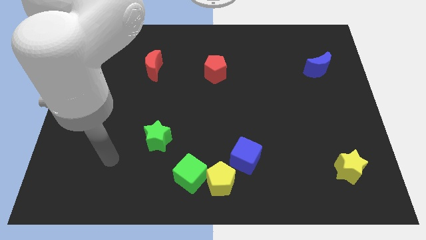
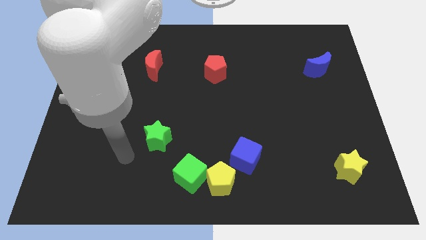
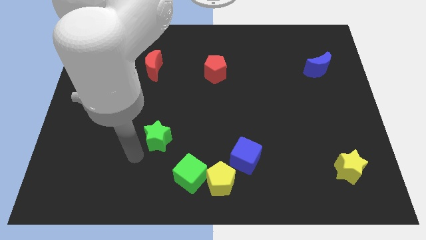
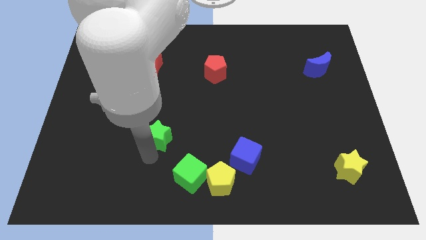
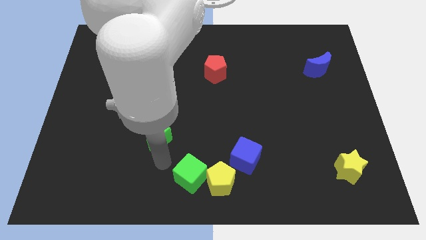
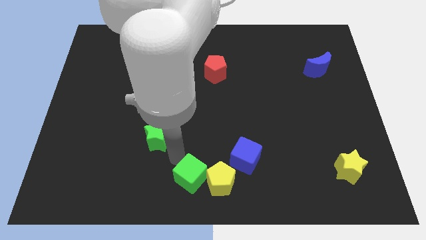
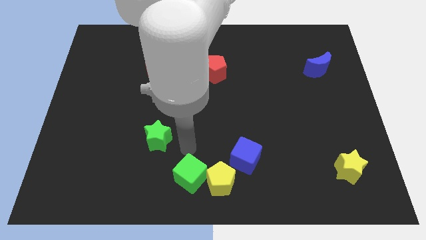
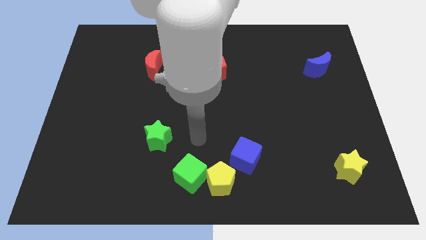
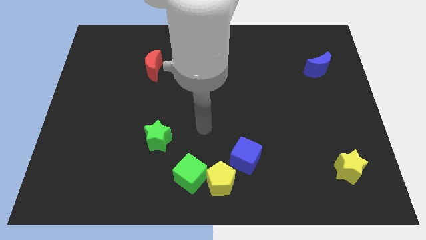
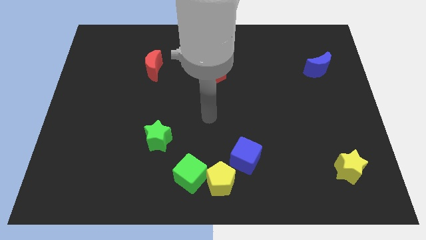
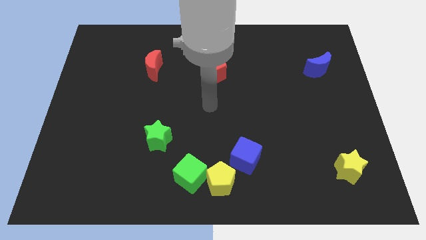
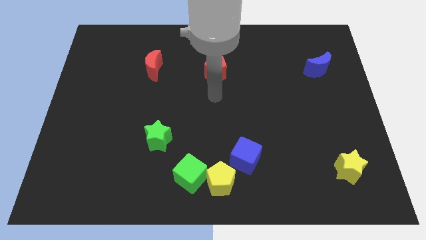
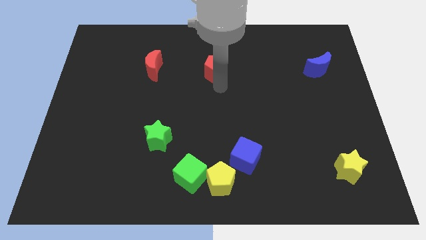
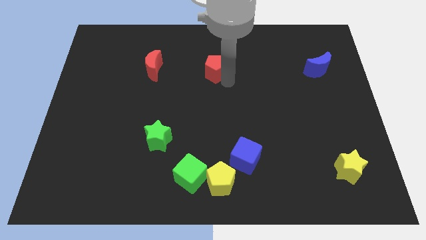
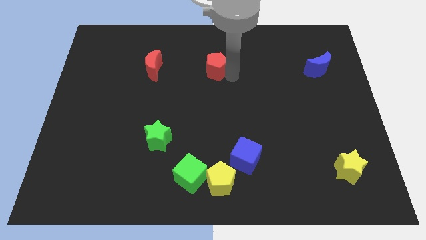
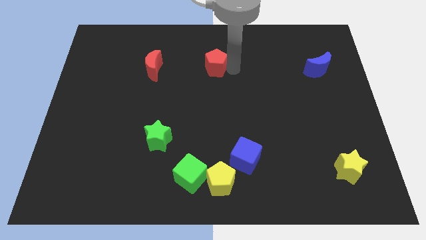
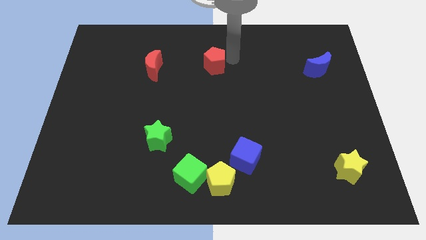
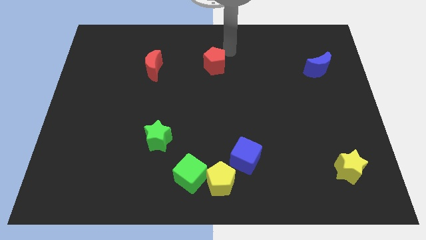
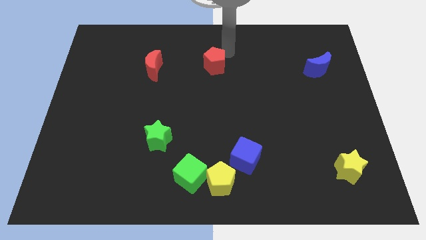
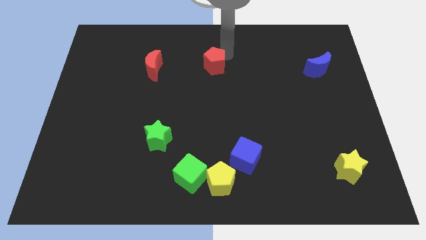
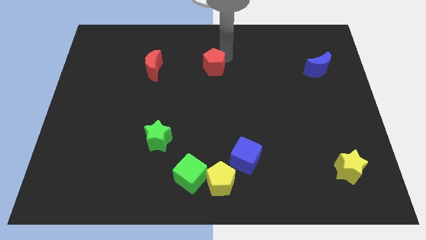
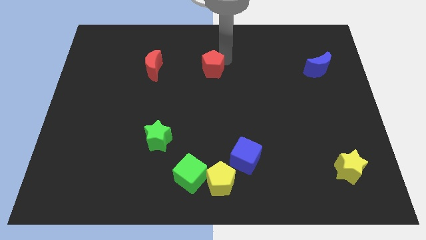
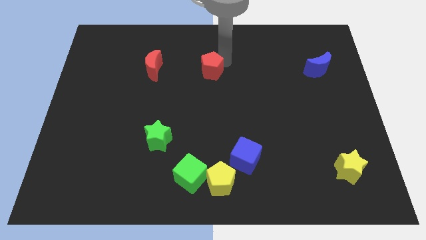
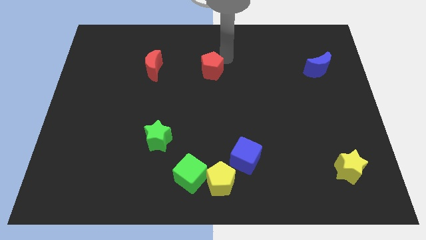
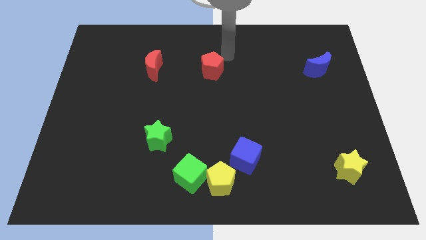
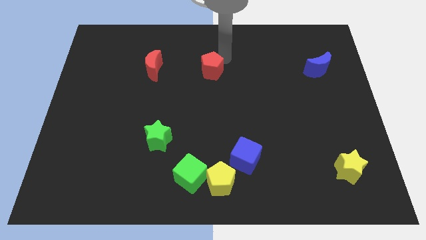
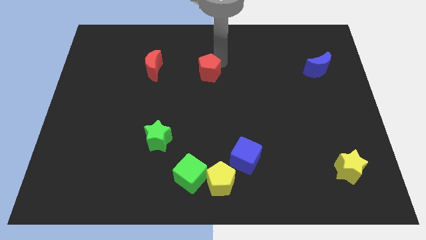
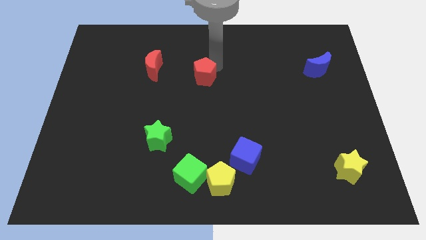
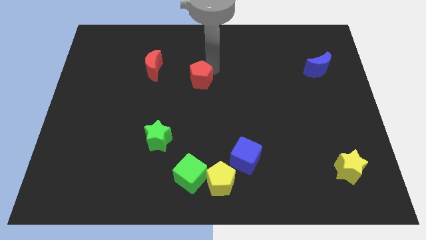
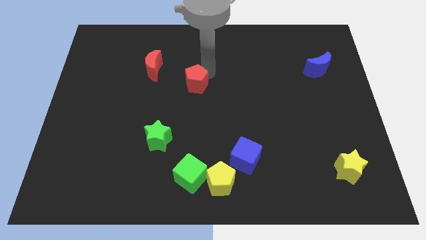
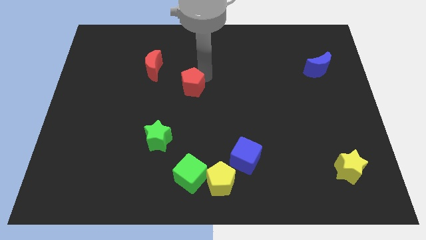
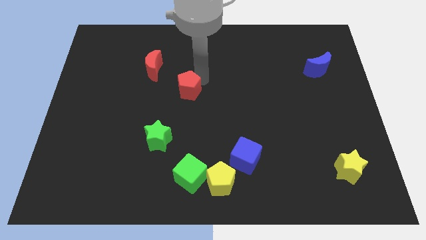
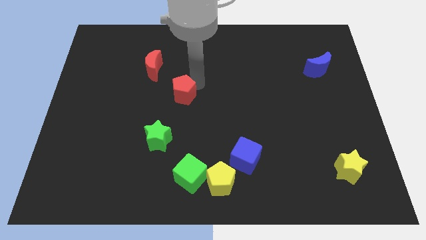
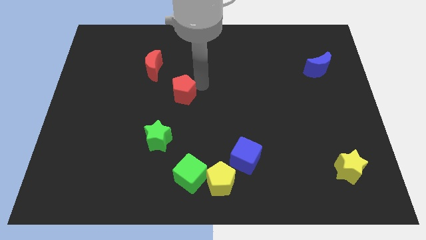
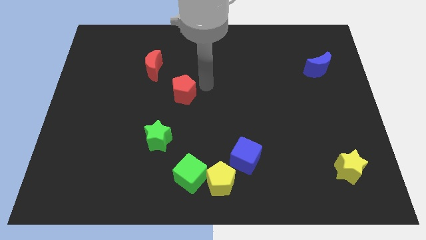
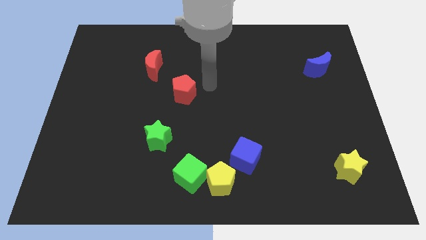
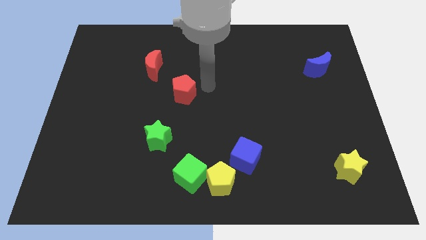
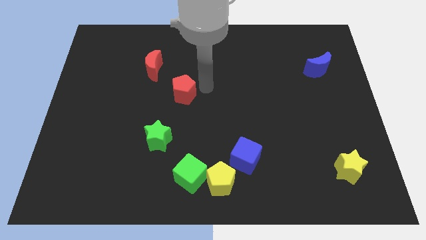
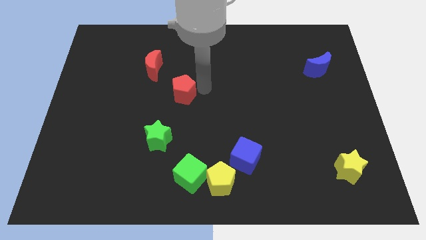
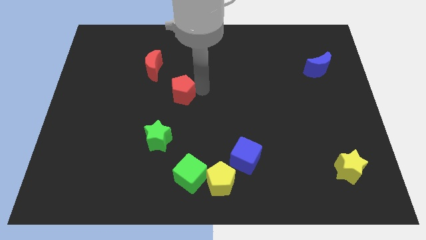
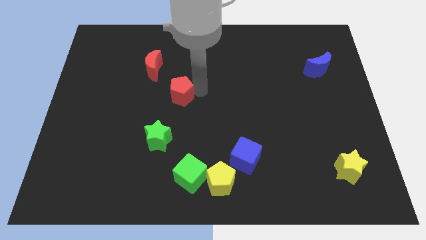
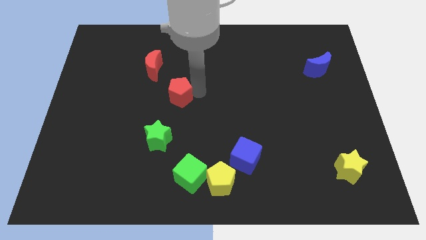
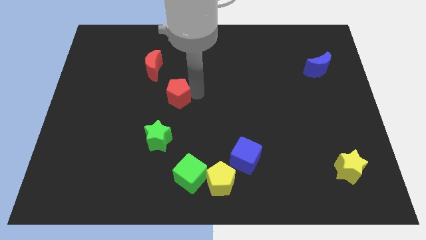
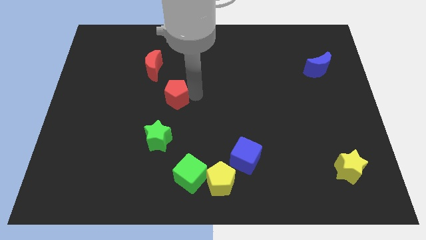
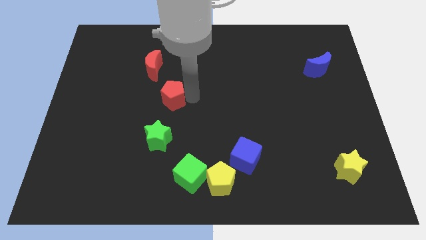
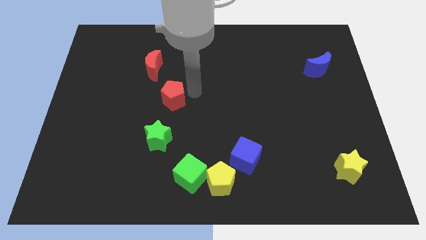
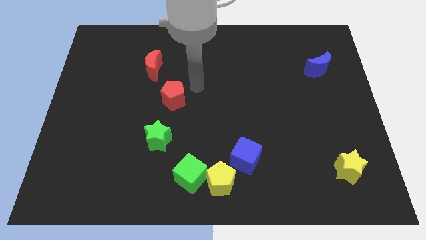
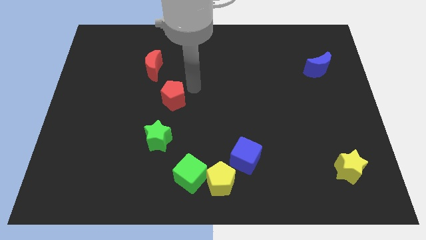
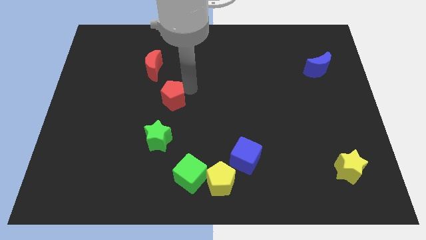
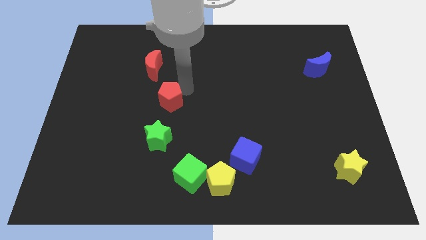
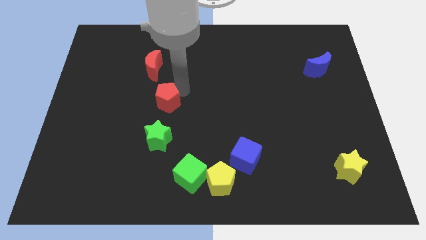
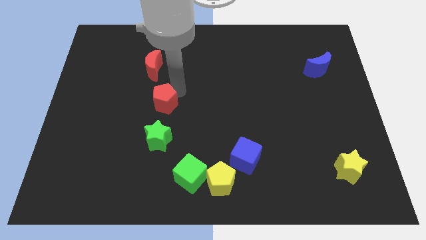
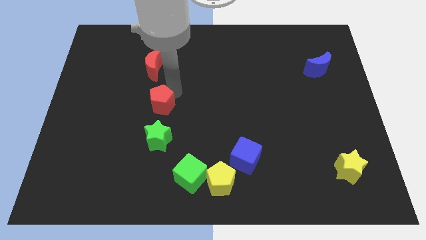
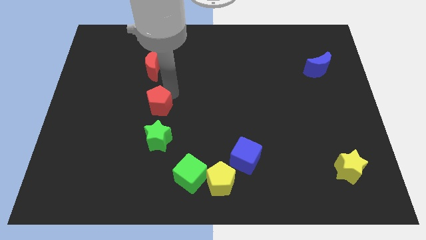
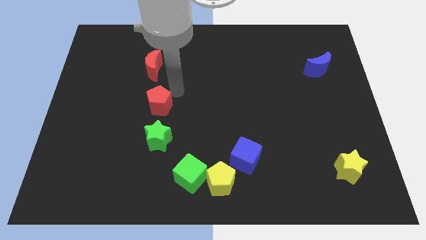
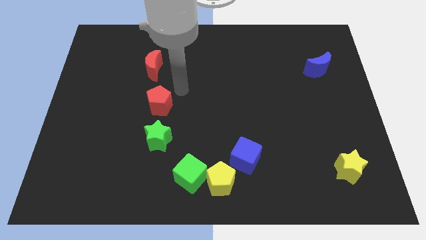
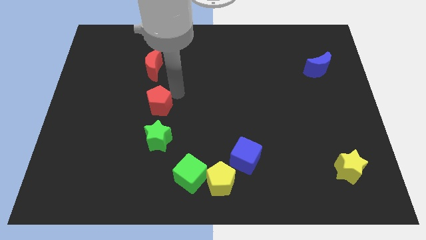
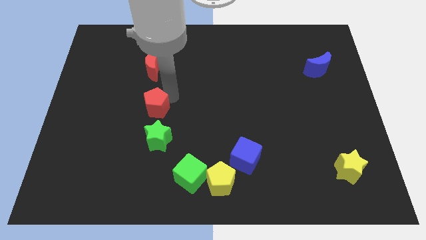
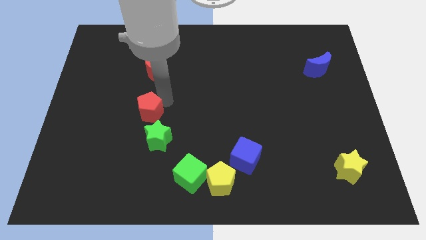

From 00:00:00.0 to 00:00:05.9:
move the red pentagon to the top left side of the green star

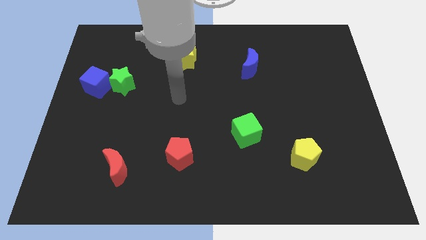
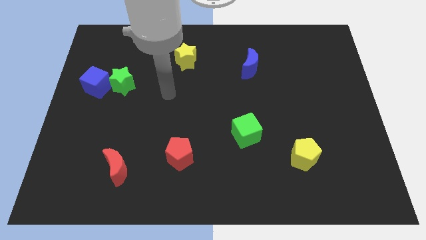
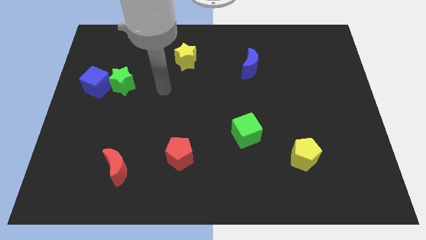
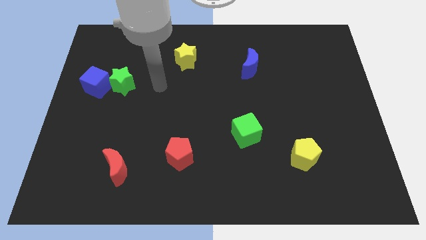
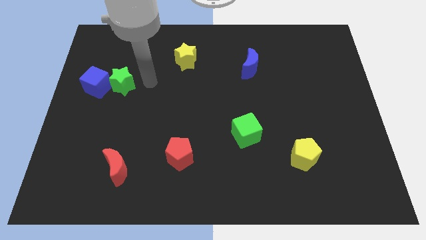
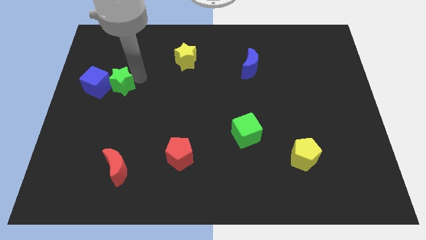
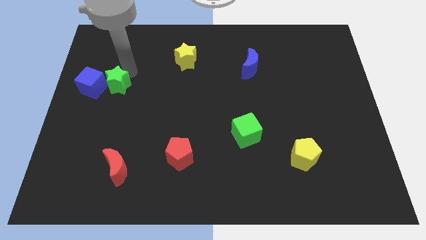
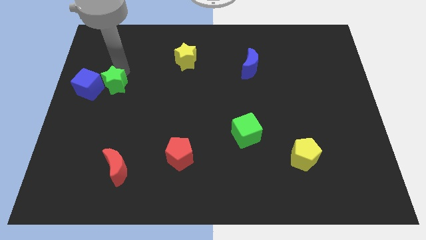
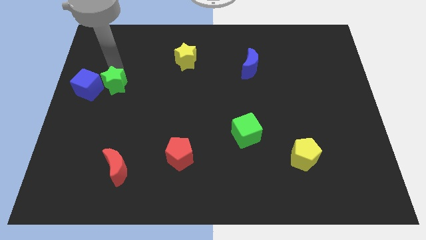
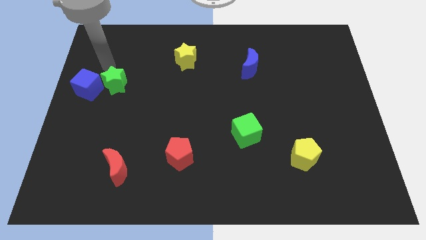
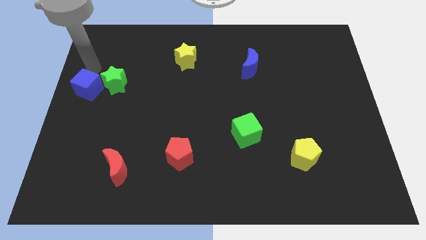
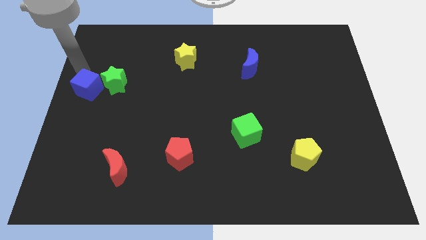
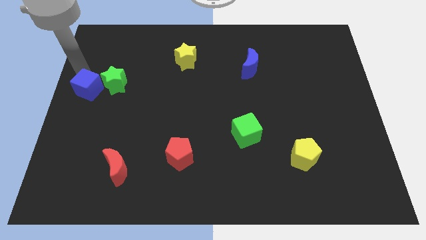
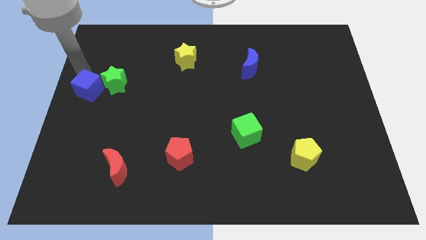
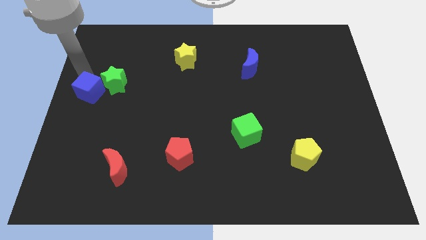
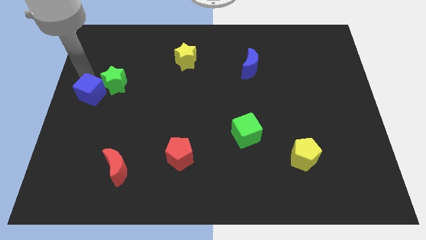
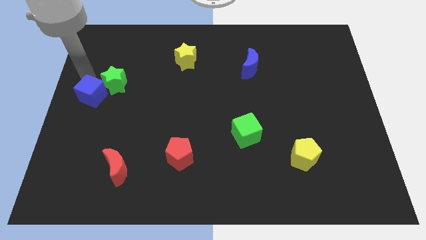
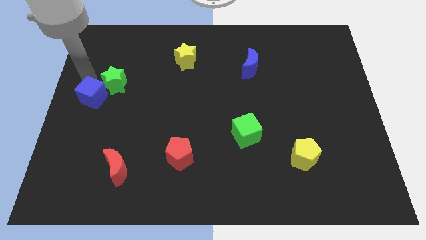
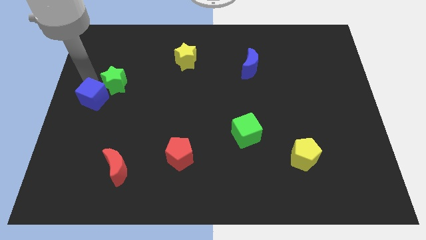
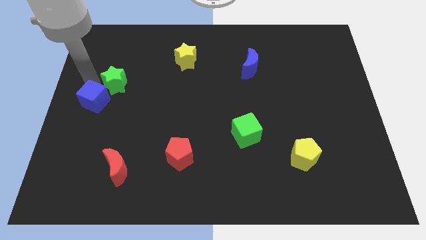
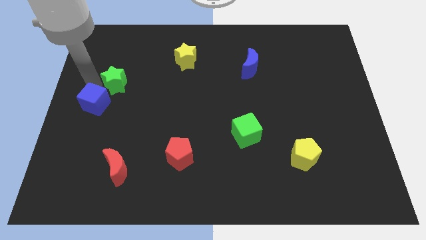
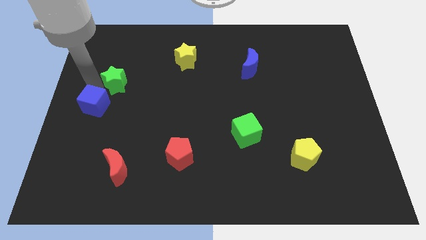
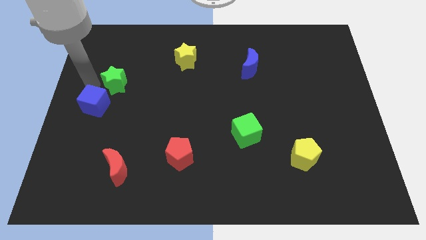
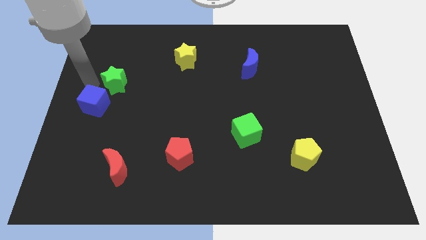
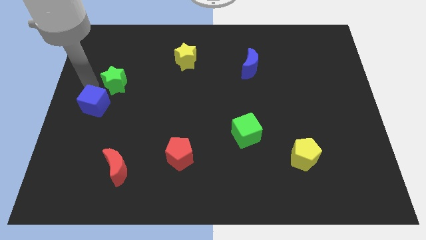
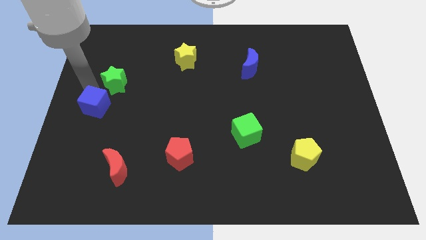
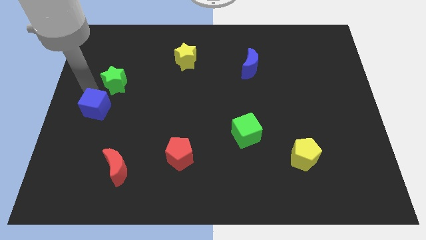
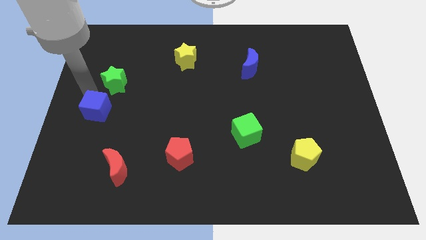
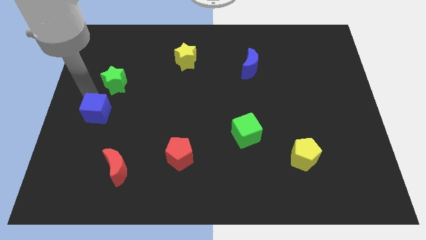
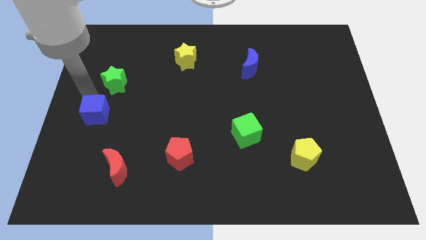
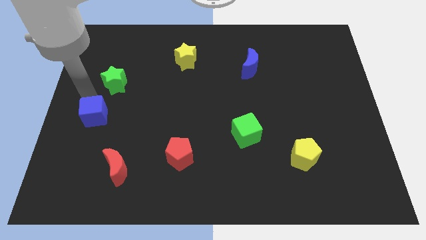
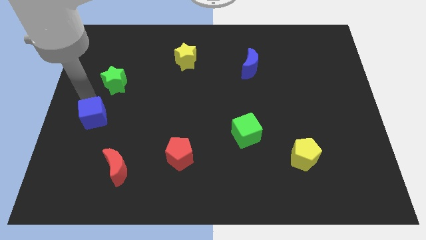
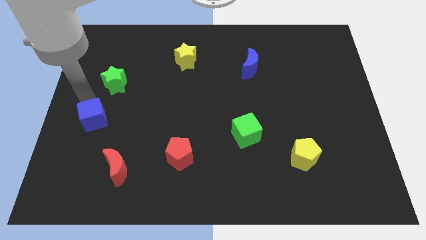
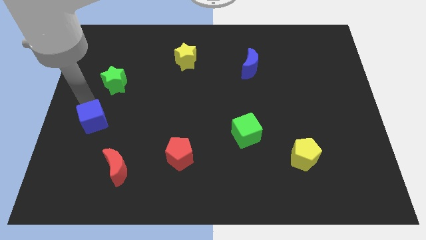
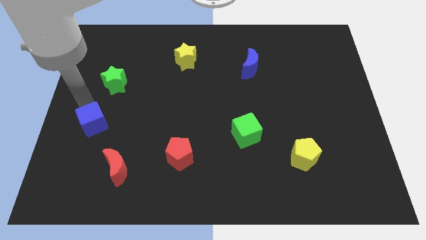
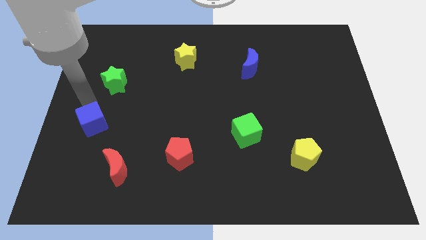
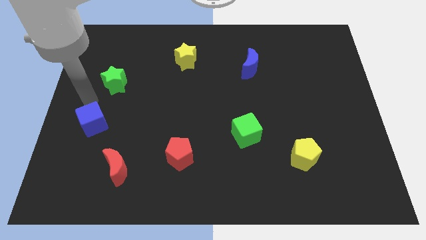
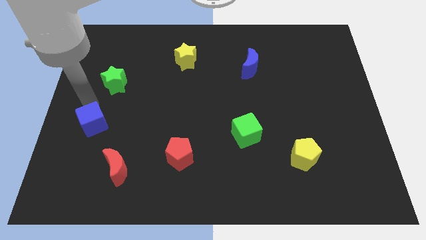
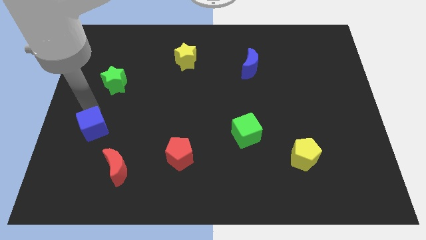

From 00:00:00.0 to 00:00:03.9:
put the blue cube to the top left of the red moon
